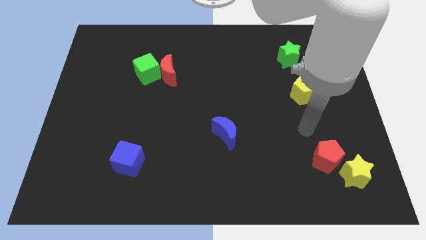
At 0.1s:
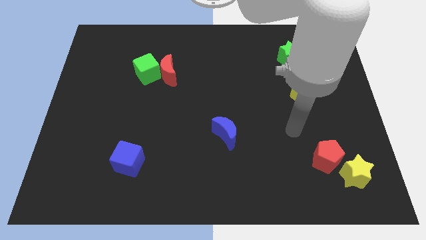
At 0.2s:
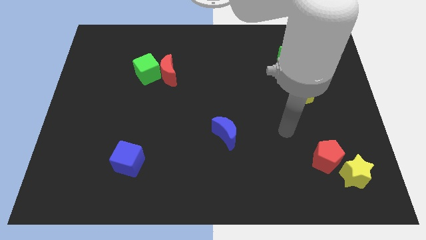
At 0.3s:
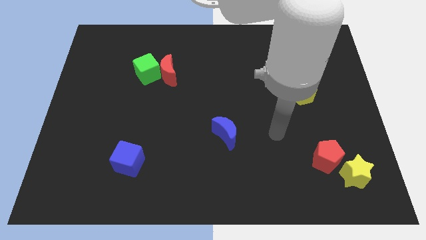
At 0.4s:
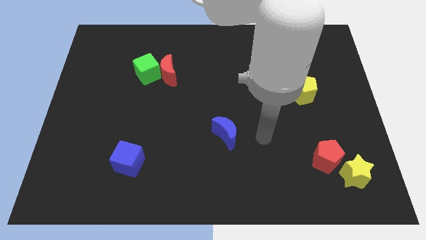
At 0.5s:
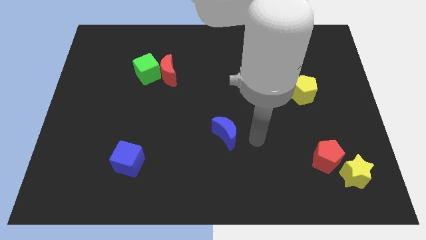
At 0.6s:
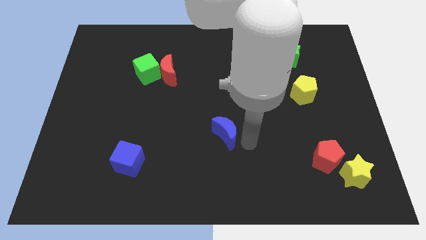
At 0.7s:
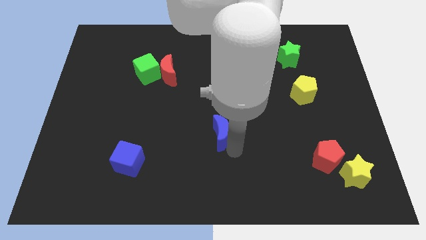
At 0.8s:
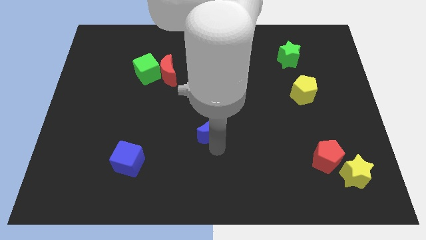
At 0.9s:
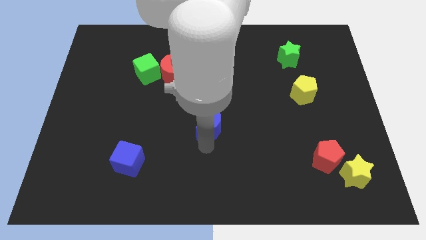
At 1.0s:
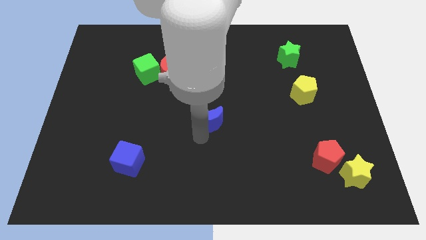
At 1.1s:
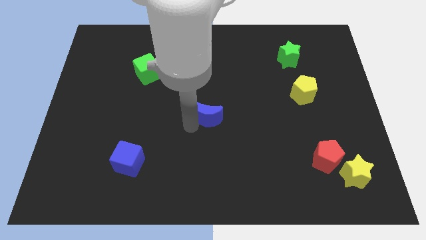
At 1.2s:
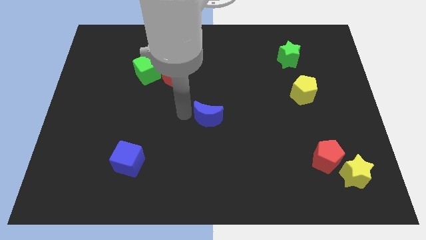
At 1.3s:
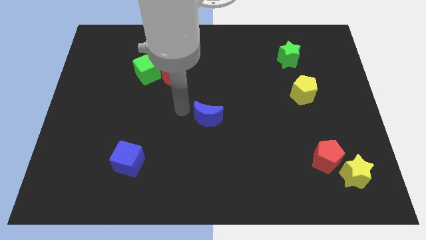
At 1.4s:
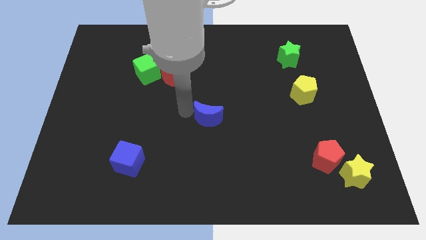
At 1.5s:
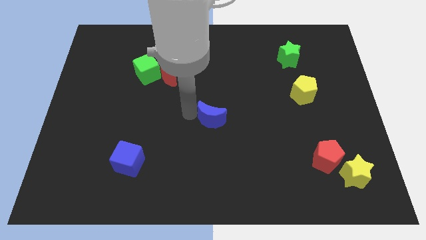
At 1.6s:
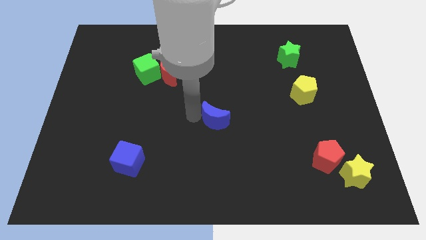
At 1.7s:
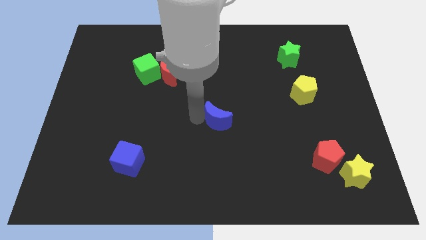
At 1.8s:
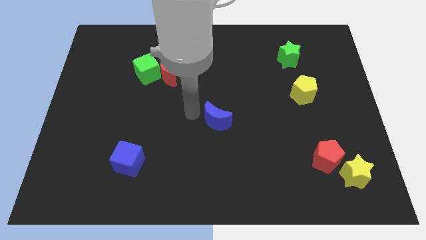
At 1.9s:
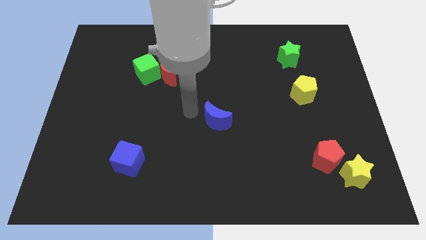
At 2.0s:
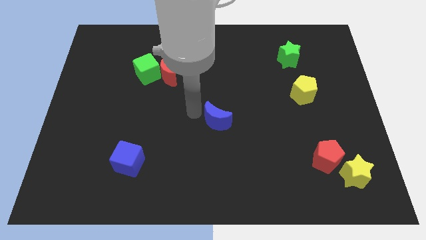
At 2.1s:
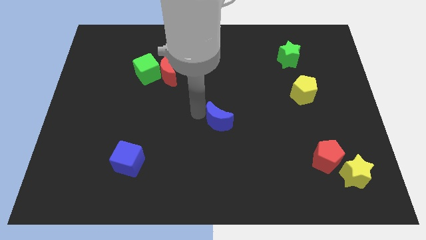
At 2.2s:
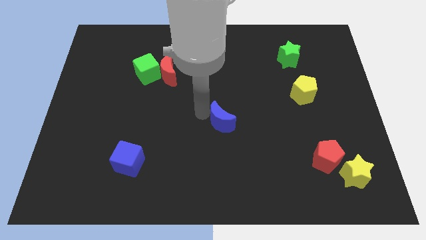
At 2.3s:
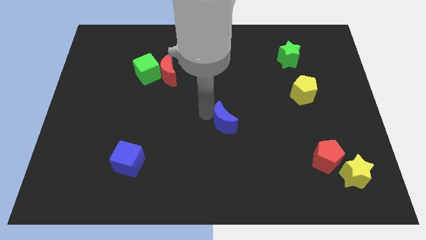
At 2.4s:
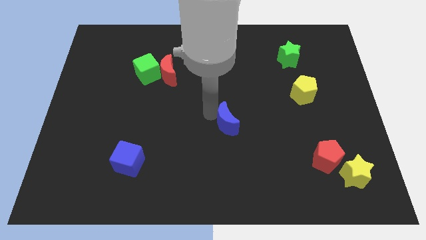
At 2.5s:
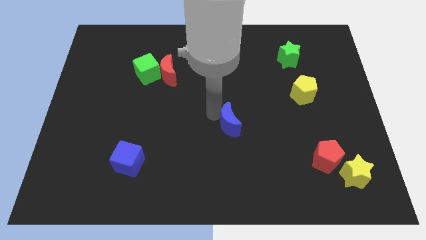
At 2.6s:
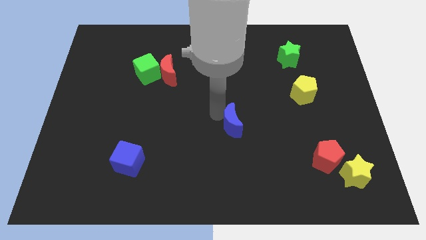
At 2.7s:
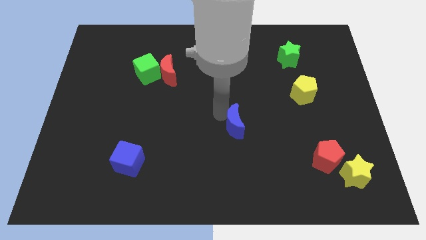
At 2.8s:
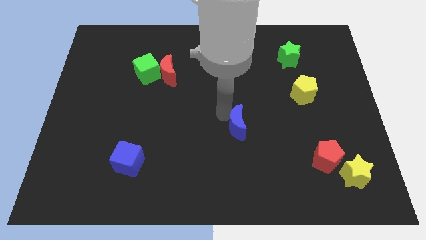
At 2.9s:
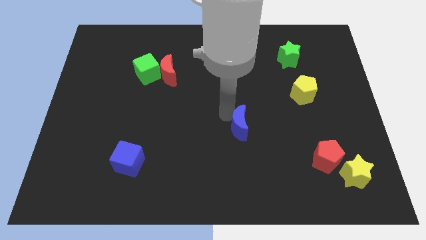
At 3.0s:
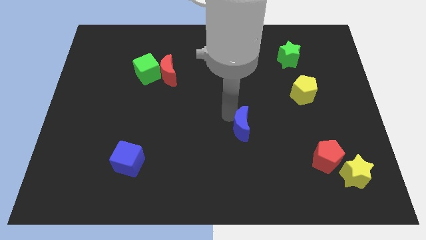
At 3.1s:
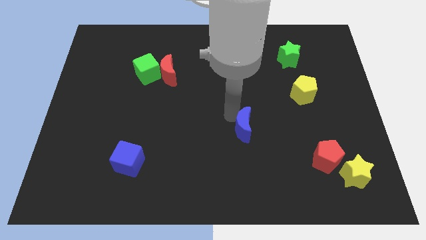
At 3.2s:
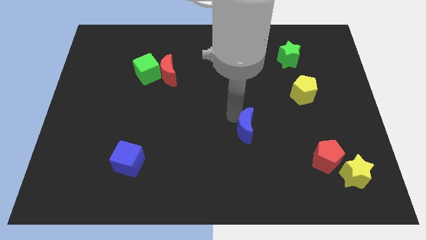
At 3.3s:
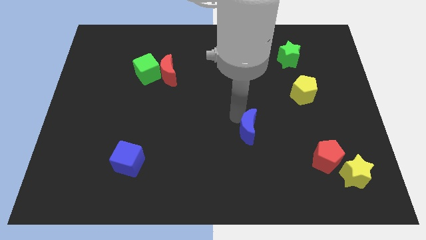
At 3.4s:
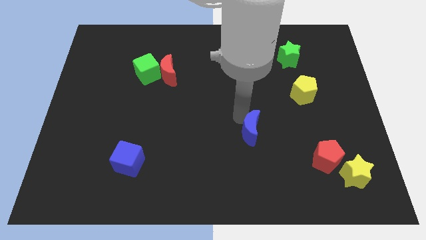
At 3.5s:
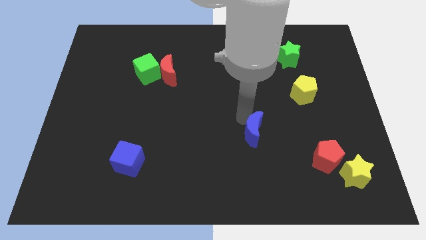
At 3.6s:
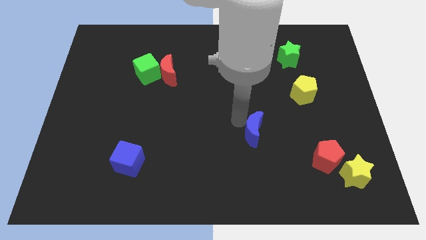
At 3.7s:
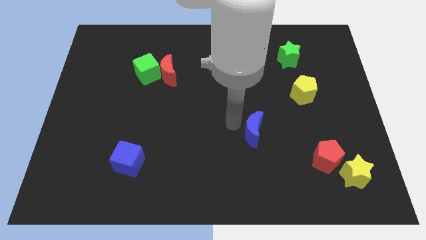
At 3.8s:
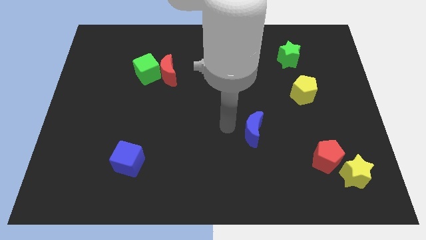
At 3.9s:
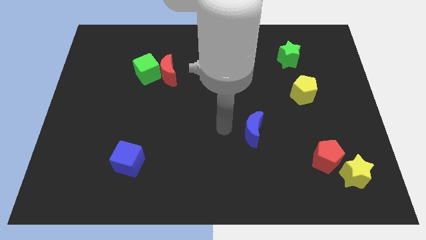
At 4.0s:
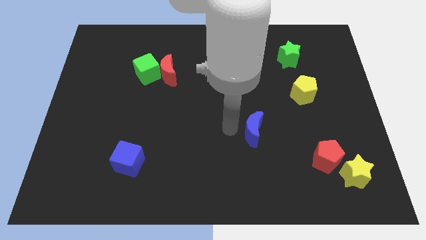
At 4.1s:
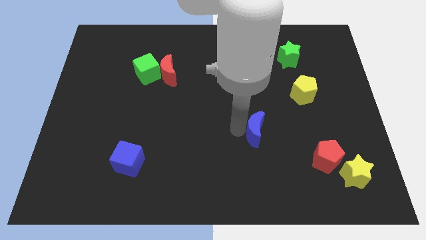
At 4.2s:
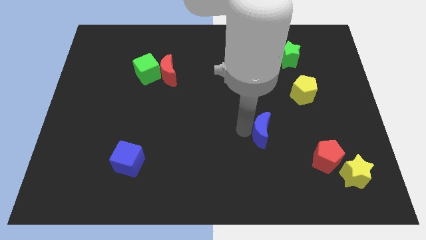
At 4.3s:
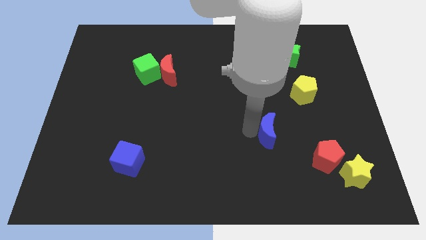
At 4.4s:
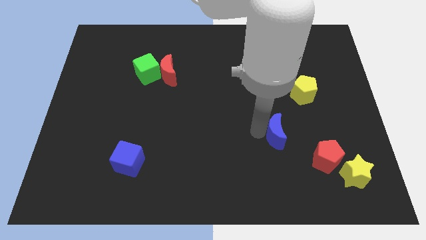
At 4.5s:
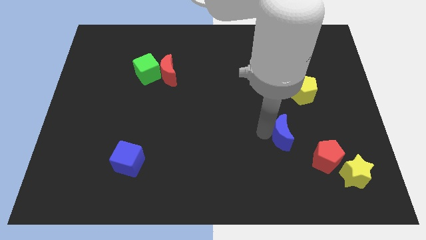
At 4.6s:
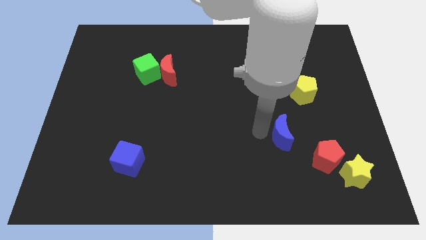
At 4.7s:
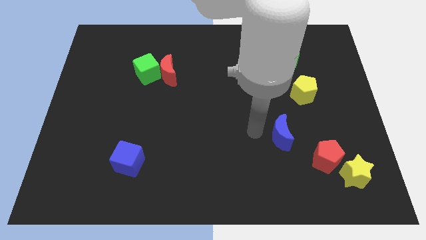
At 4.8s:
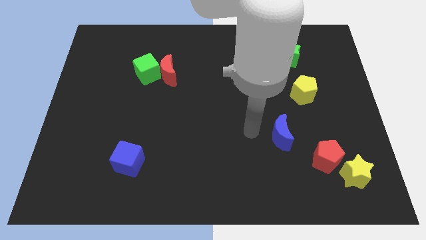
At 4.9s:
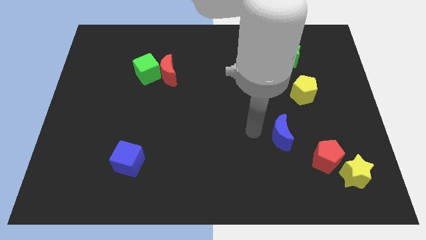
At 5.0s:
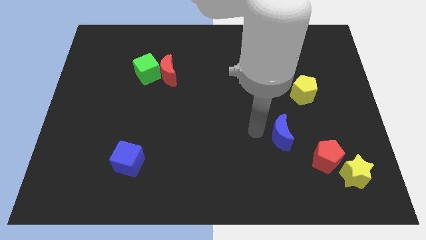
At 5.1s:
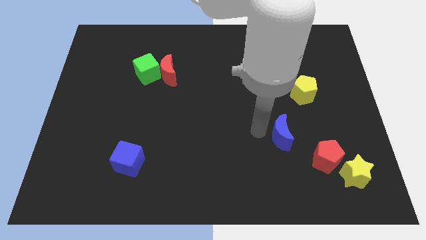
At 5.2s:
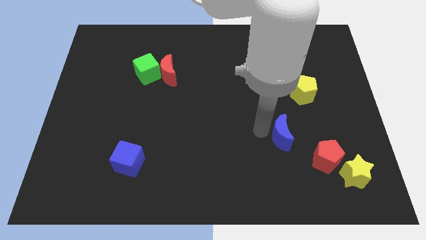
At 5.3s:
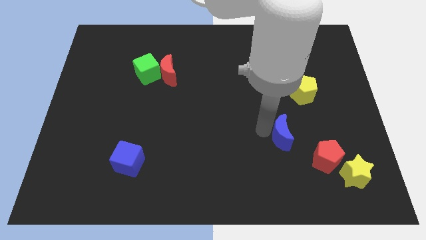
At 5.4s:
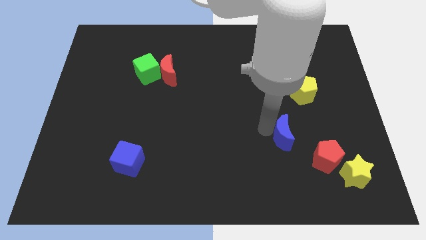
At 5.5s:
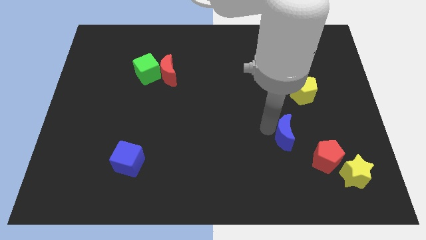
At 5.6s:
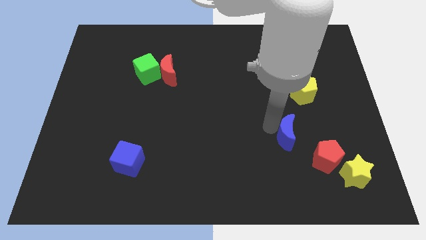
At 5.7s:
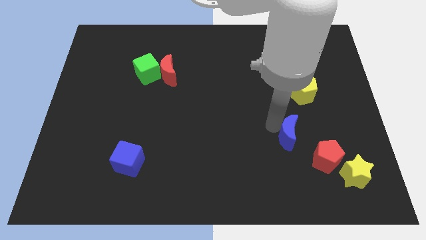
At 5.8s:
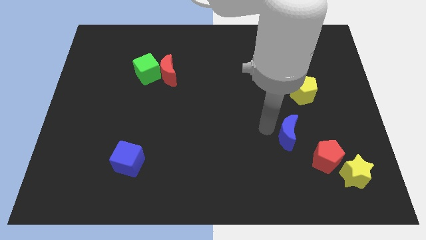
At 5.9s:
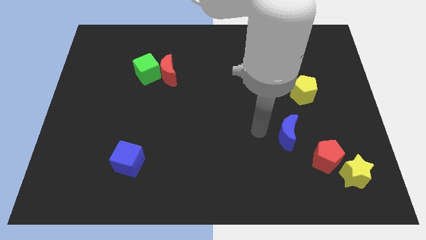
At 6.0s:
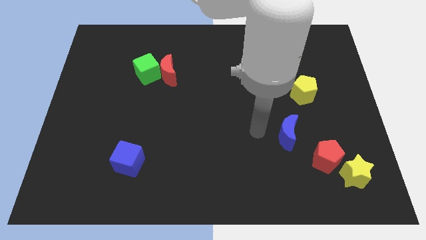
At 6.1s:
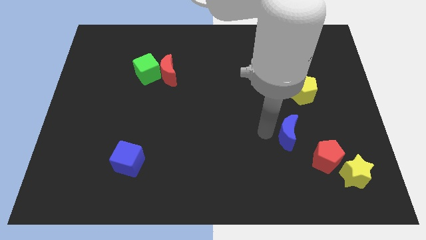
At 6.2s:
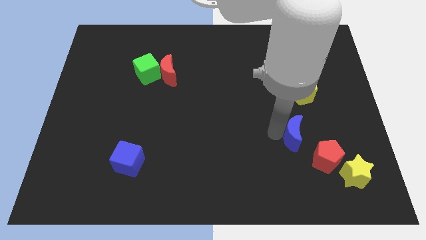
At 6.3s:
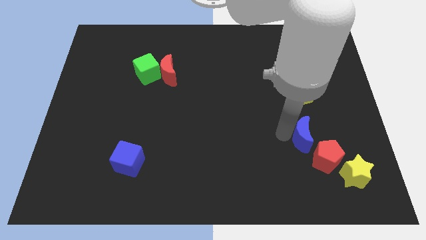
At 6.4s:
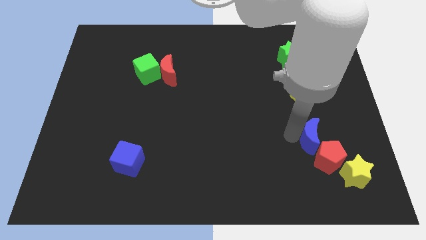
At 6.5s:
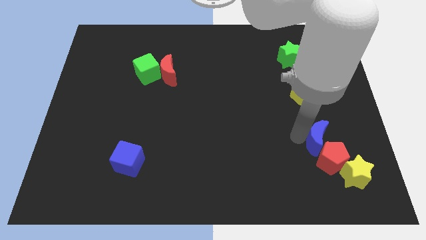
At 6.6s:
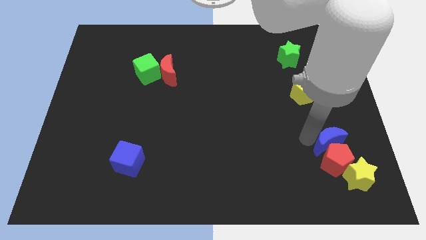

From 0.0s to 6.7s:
put the blue moon to the top right side of the red pentagon

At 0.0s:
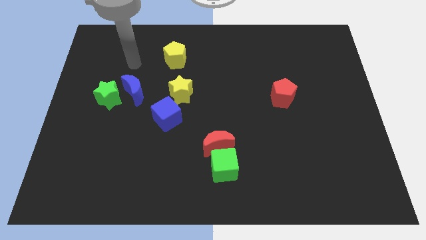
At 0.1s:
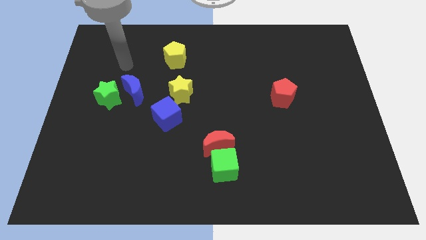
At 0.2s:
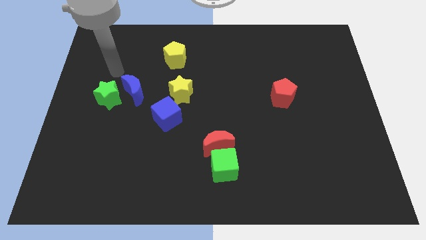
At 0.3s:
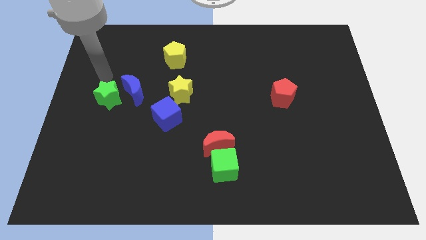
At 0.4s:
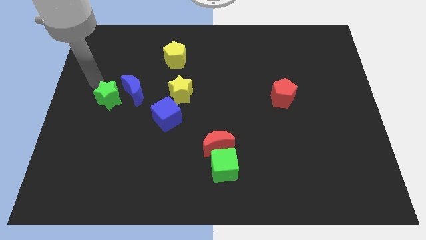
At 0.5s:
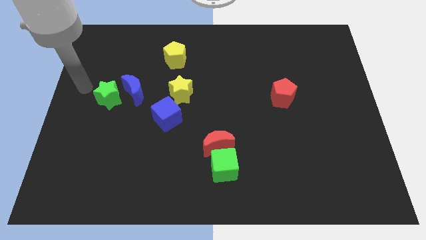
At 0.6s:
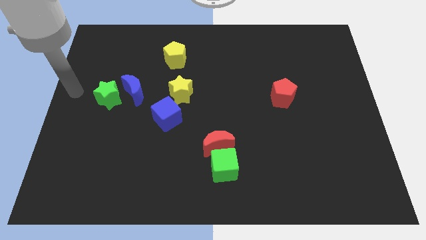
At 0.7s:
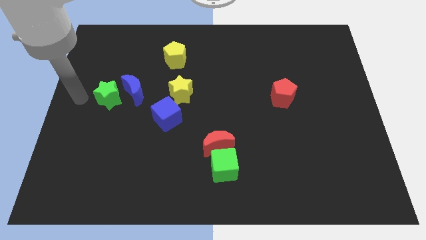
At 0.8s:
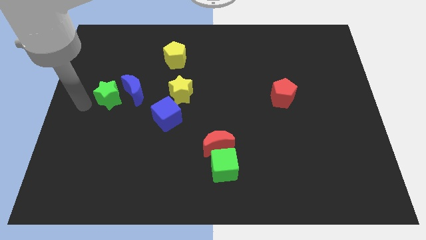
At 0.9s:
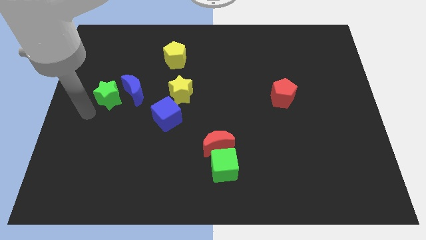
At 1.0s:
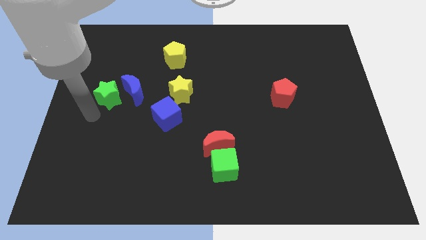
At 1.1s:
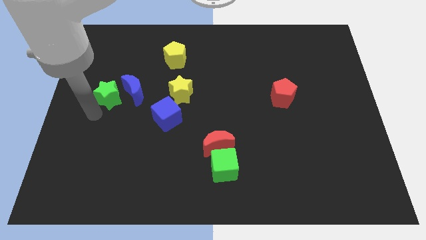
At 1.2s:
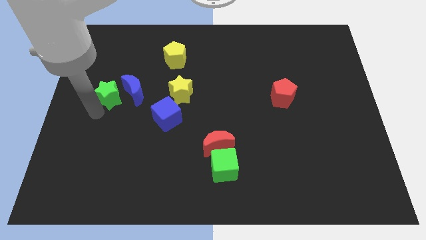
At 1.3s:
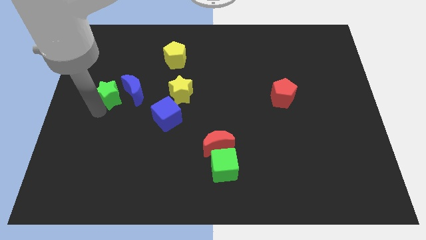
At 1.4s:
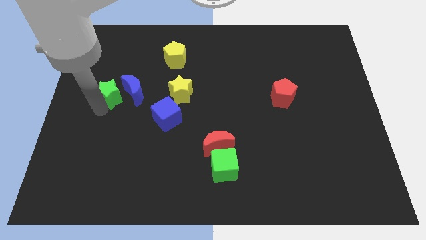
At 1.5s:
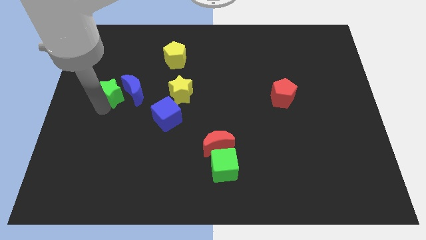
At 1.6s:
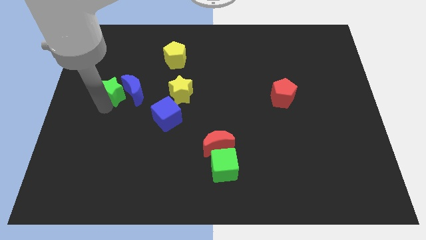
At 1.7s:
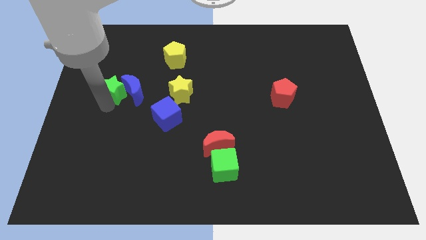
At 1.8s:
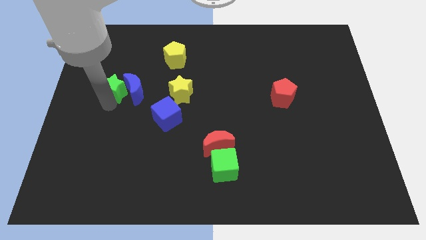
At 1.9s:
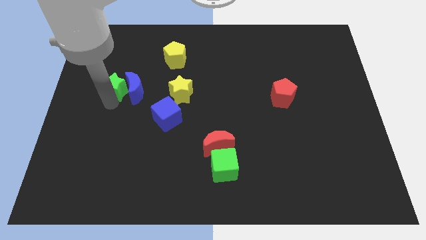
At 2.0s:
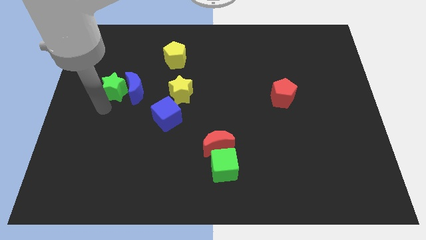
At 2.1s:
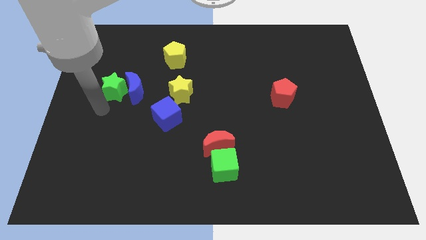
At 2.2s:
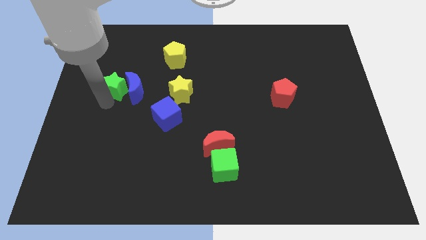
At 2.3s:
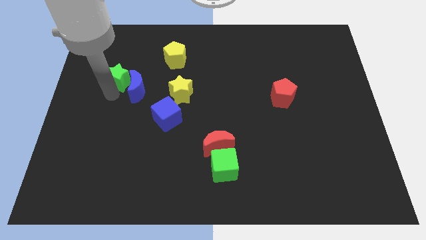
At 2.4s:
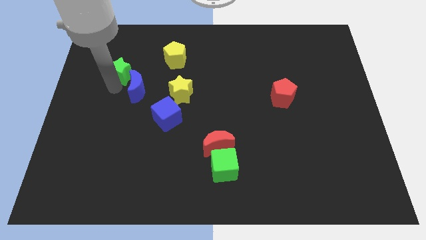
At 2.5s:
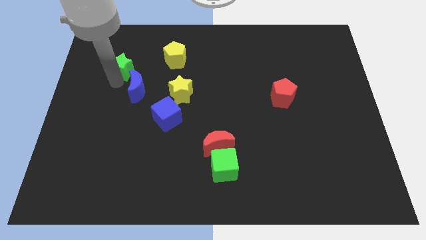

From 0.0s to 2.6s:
push the green star to the left side of the yellow pentagon
